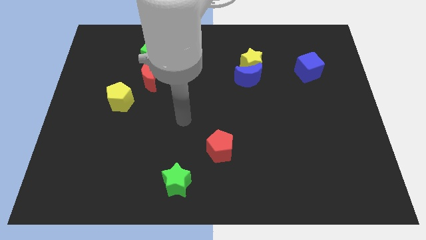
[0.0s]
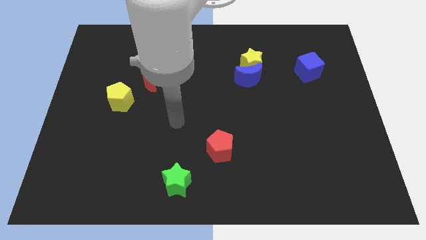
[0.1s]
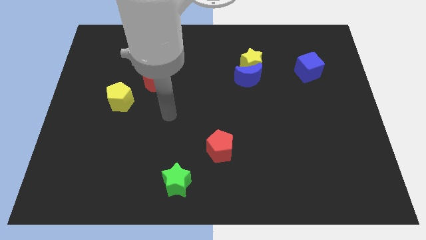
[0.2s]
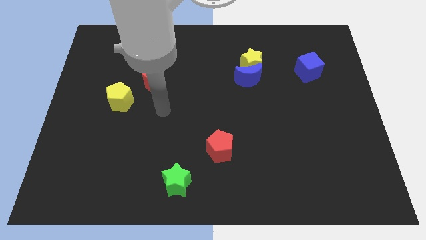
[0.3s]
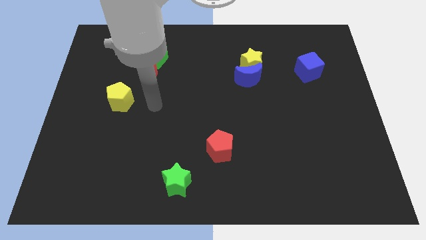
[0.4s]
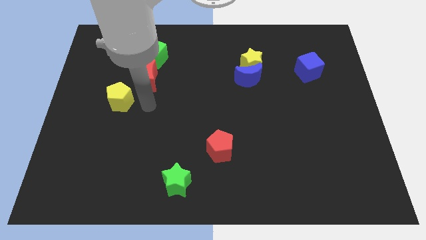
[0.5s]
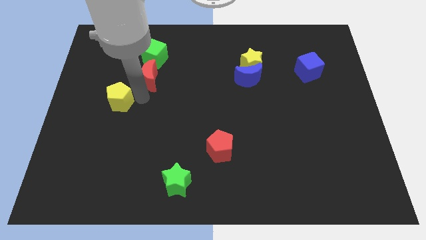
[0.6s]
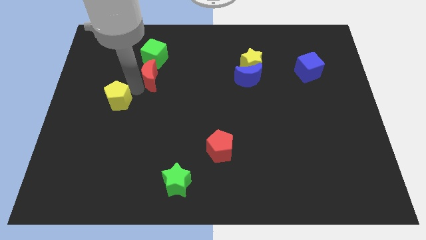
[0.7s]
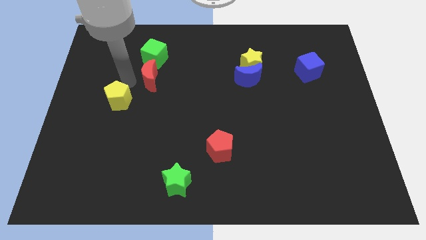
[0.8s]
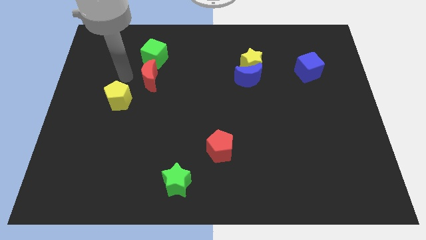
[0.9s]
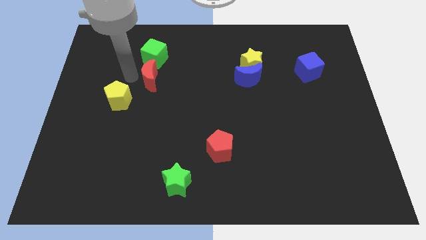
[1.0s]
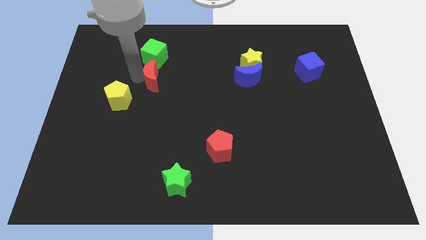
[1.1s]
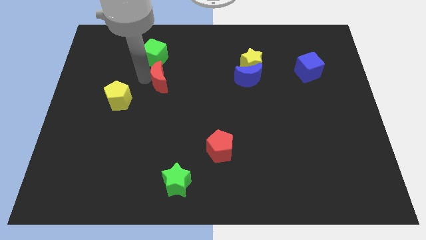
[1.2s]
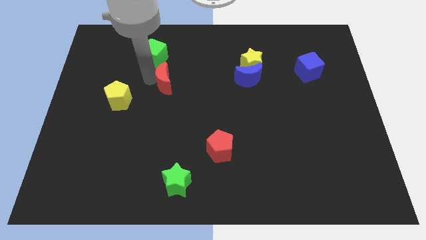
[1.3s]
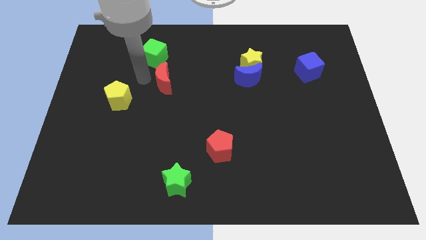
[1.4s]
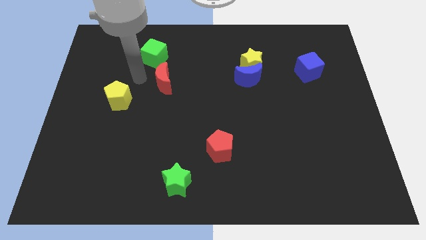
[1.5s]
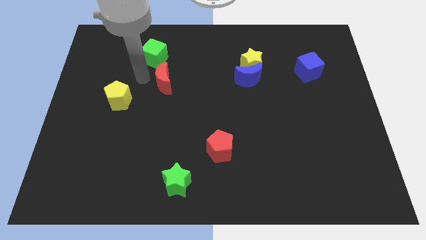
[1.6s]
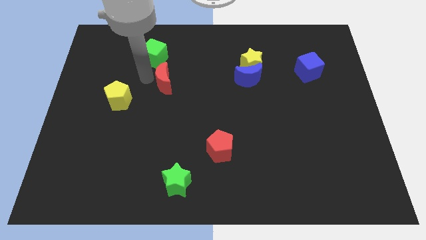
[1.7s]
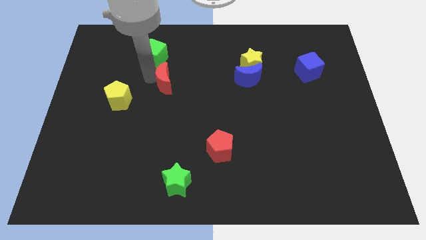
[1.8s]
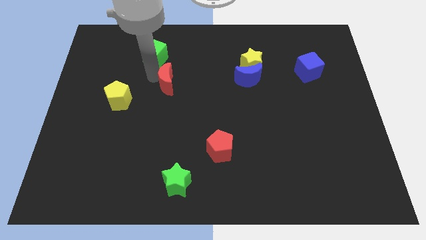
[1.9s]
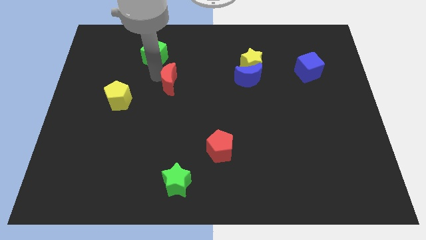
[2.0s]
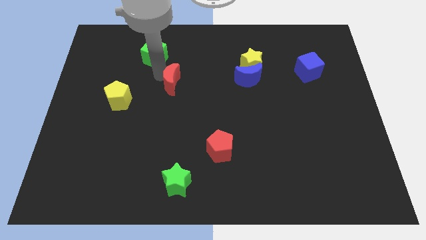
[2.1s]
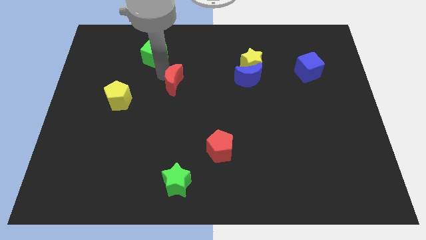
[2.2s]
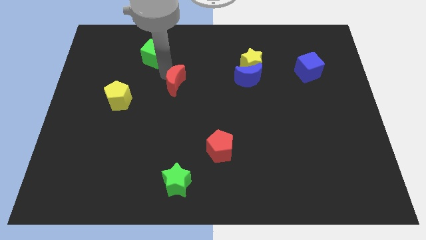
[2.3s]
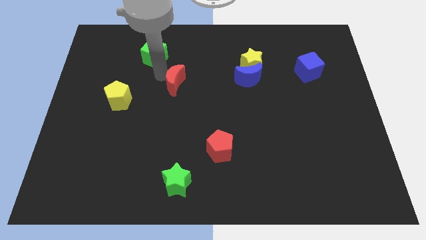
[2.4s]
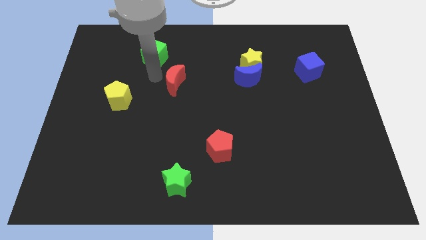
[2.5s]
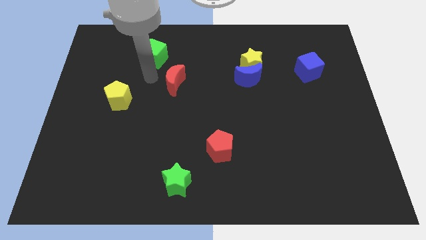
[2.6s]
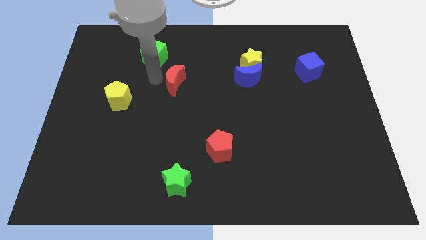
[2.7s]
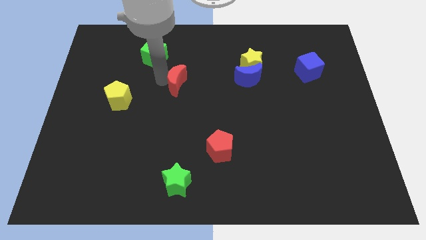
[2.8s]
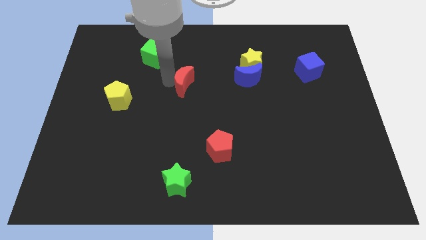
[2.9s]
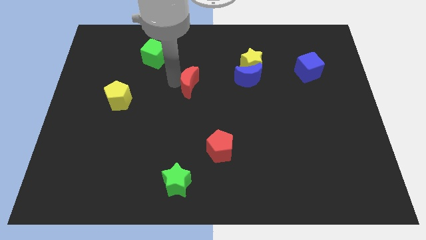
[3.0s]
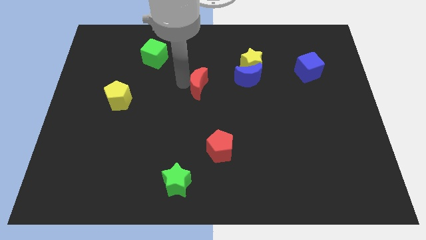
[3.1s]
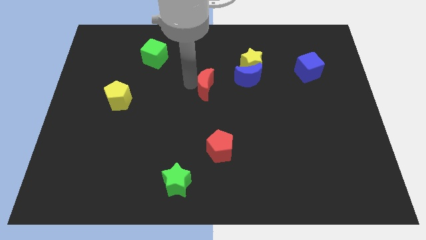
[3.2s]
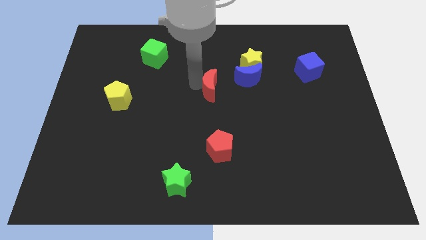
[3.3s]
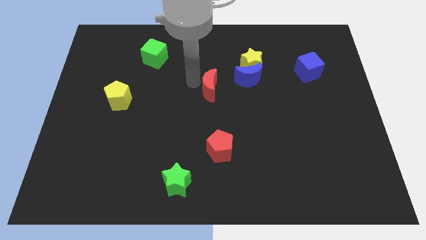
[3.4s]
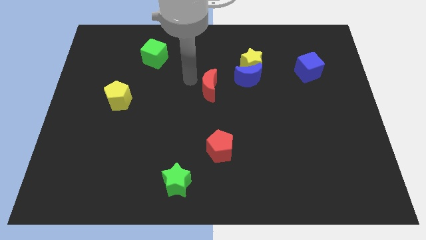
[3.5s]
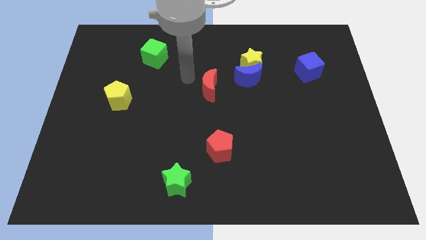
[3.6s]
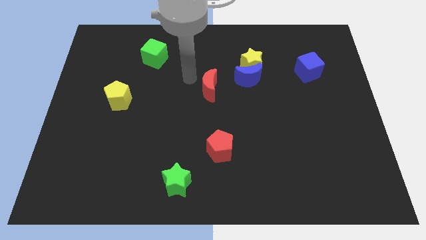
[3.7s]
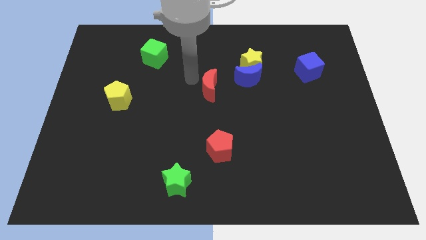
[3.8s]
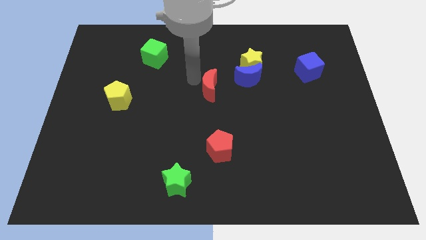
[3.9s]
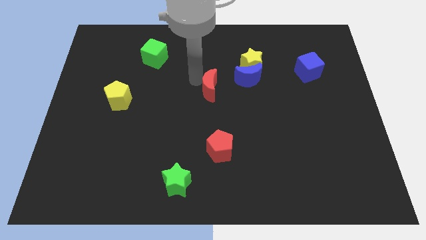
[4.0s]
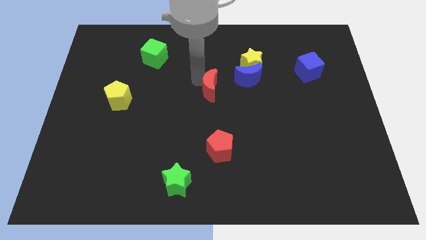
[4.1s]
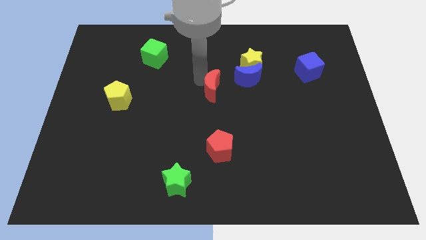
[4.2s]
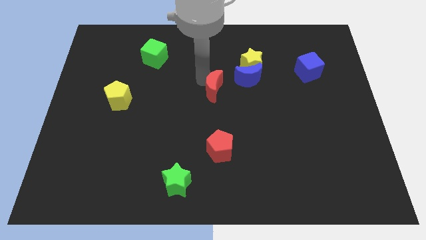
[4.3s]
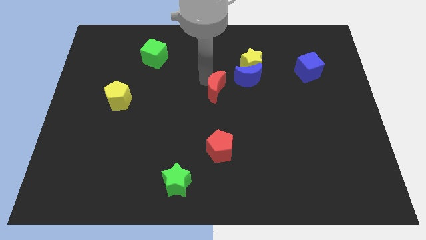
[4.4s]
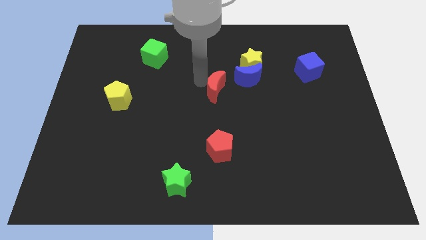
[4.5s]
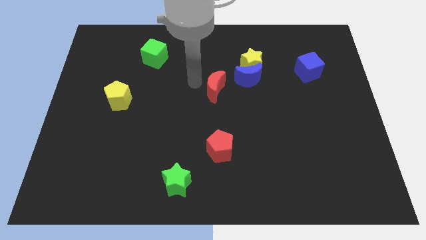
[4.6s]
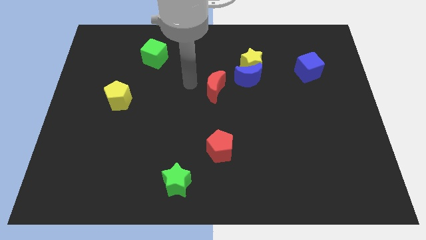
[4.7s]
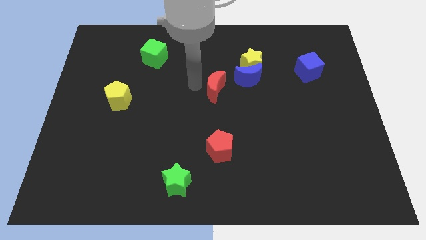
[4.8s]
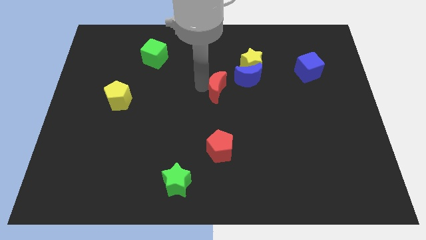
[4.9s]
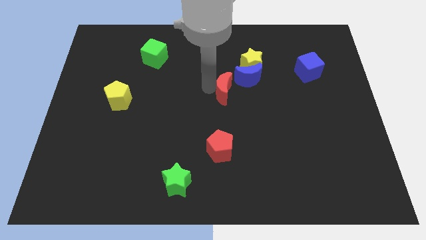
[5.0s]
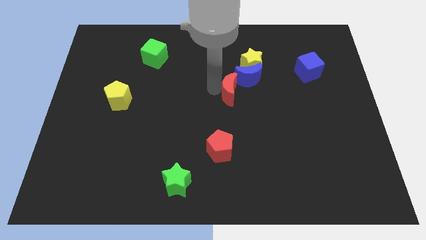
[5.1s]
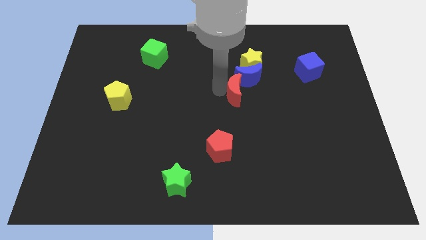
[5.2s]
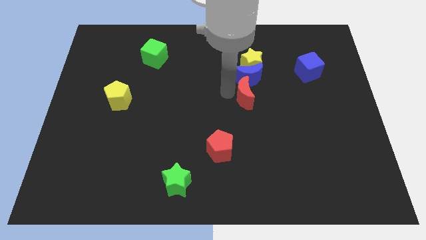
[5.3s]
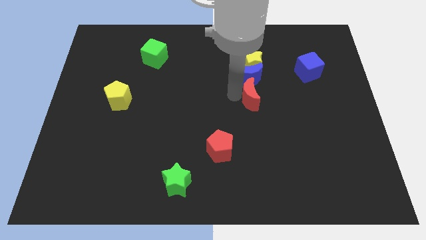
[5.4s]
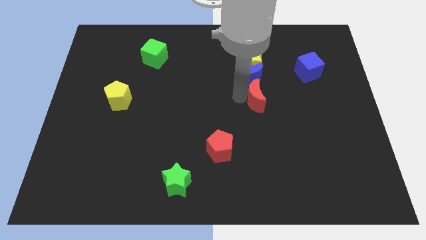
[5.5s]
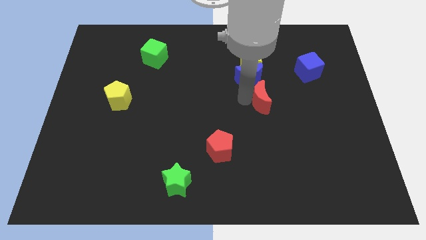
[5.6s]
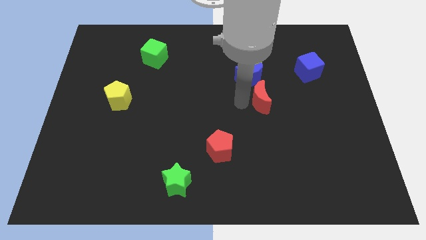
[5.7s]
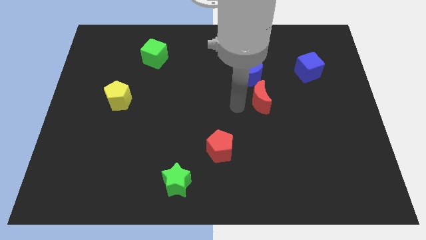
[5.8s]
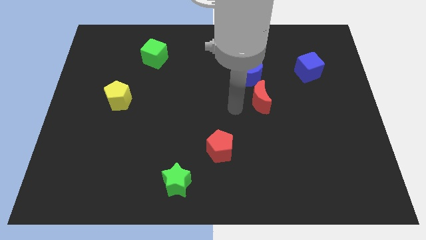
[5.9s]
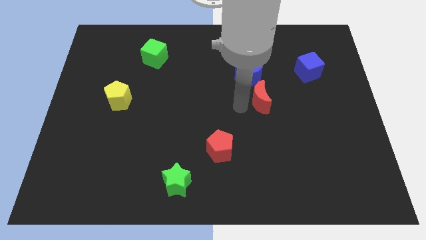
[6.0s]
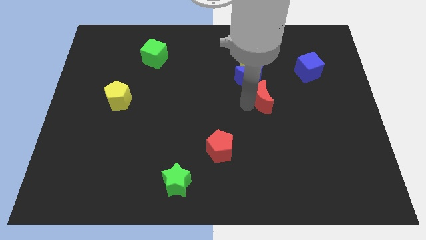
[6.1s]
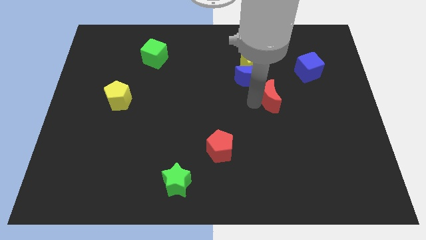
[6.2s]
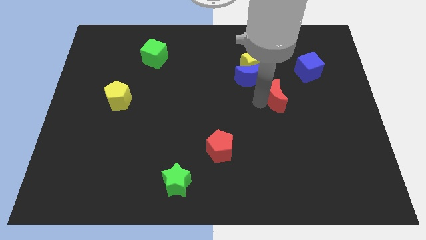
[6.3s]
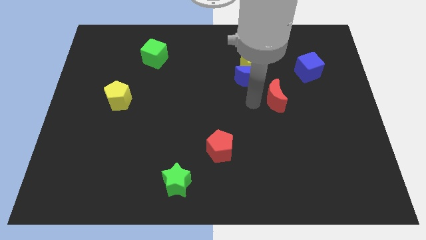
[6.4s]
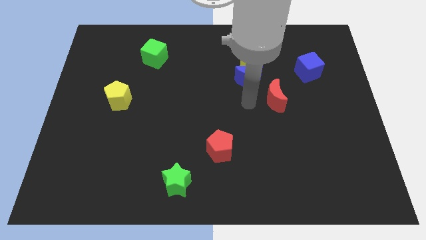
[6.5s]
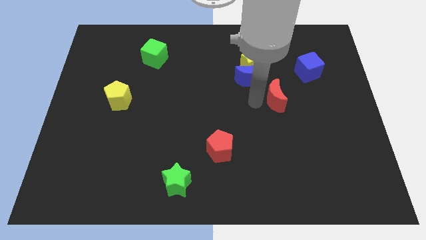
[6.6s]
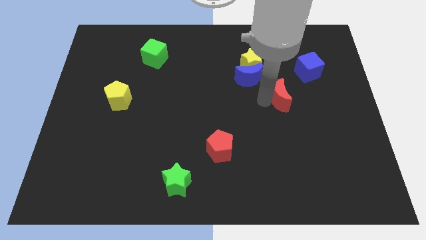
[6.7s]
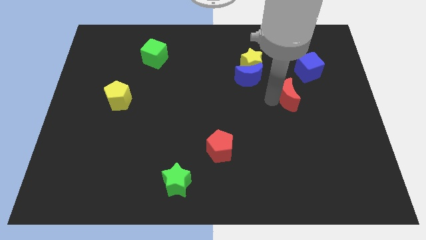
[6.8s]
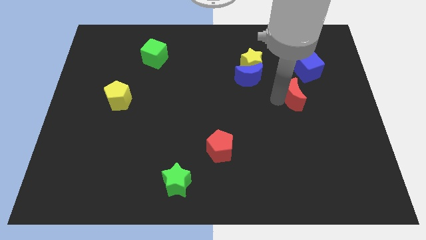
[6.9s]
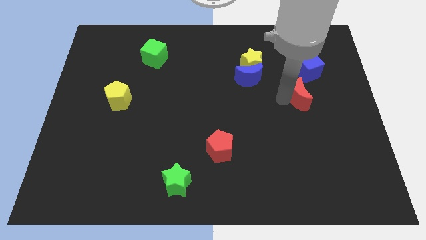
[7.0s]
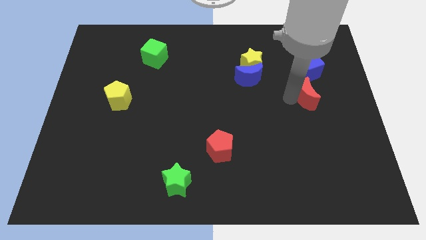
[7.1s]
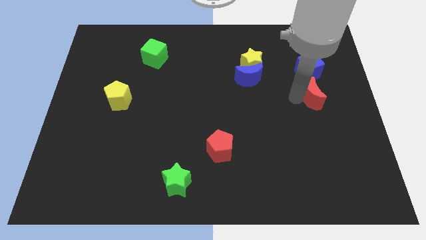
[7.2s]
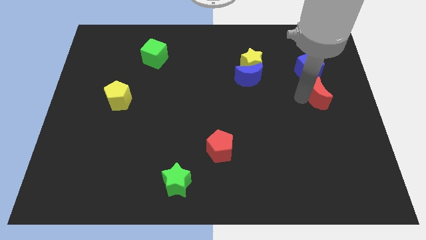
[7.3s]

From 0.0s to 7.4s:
put the red moon to the right side
